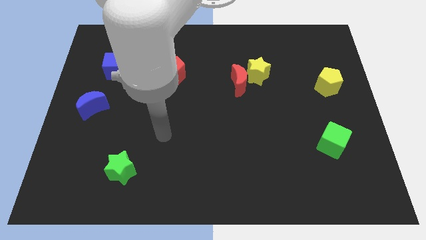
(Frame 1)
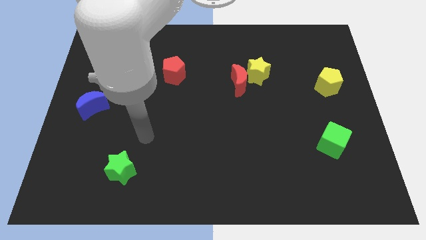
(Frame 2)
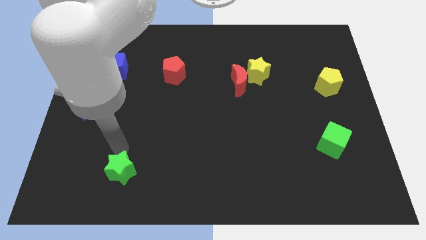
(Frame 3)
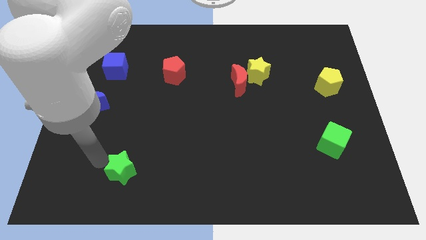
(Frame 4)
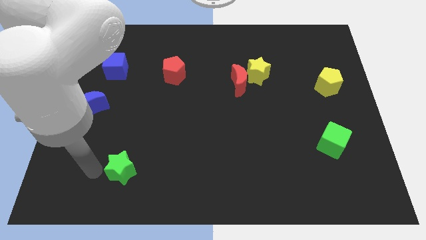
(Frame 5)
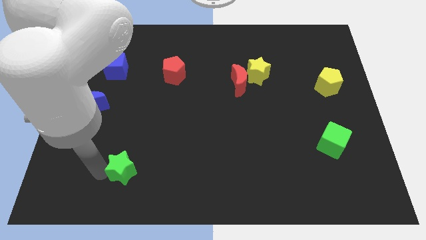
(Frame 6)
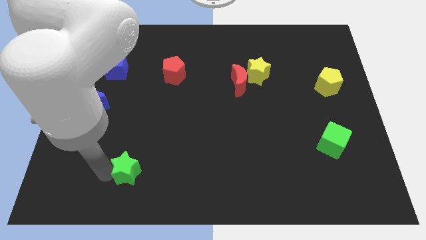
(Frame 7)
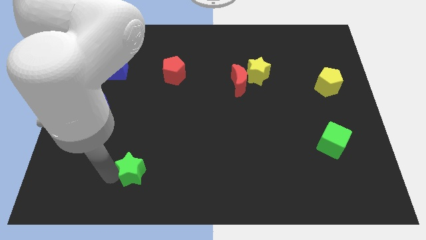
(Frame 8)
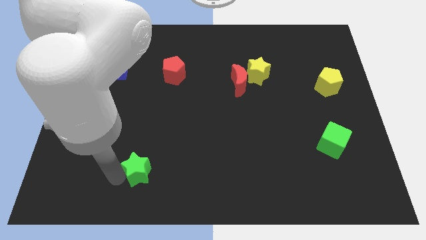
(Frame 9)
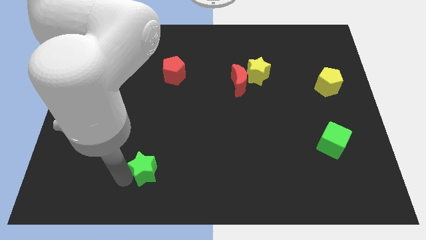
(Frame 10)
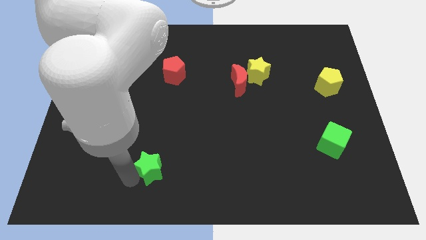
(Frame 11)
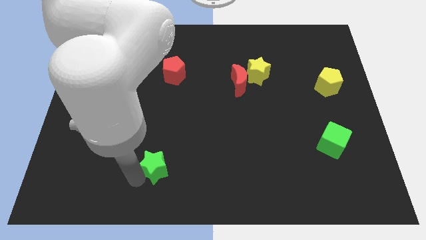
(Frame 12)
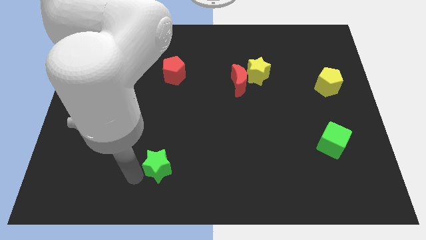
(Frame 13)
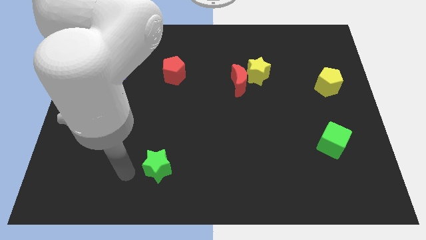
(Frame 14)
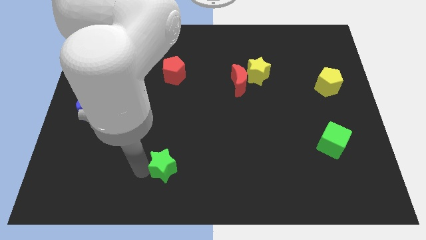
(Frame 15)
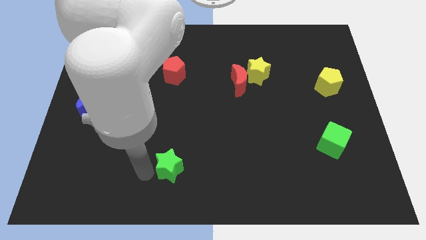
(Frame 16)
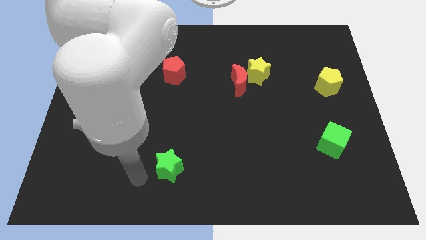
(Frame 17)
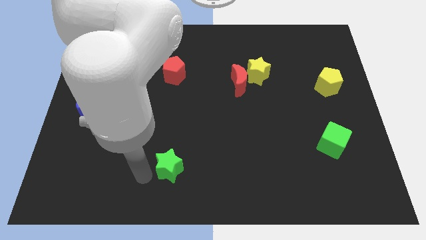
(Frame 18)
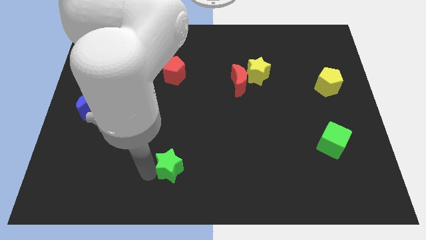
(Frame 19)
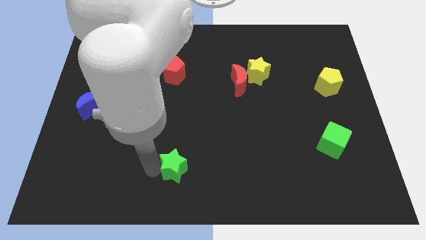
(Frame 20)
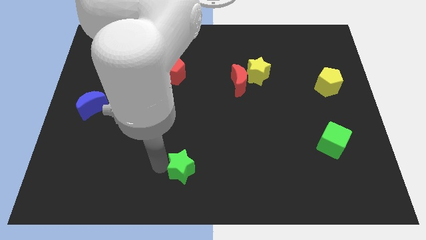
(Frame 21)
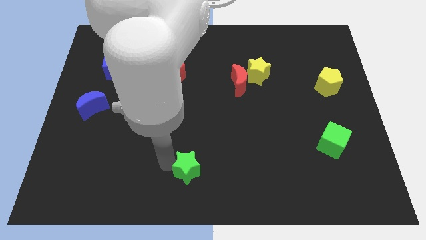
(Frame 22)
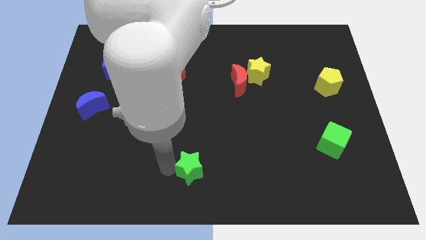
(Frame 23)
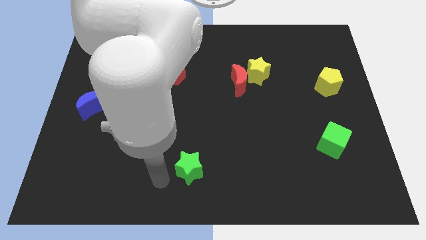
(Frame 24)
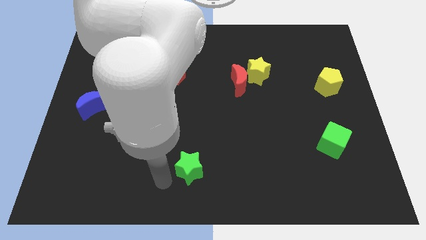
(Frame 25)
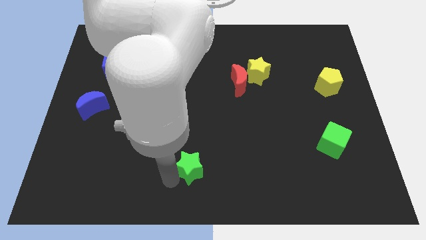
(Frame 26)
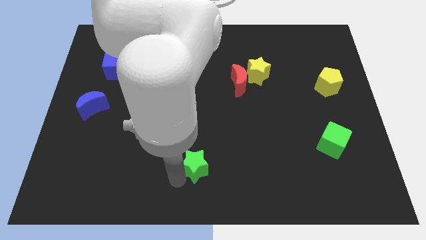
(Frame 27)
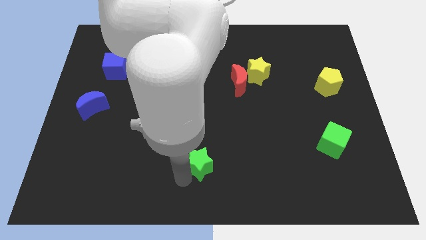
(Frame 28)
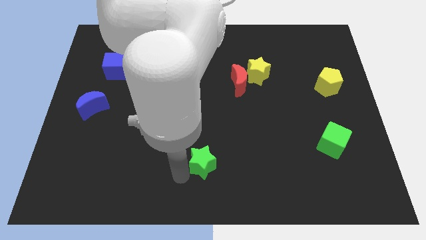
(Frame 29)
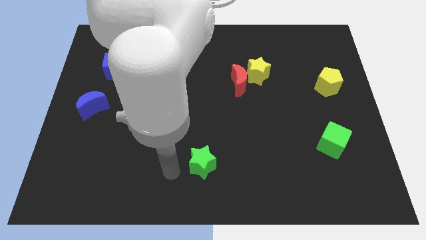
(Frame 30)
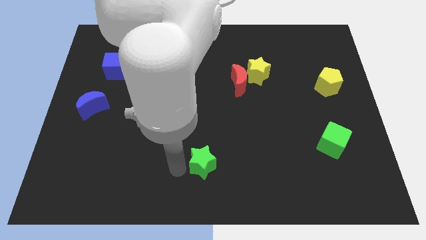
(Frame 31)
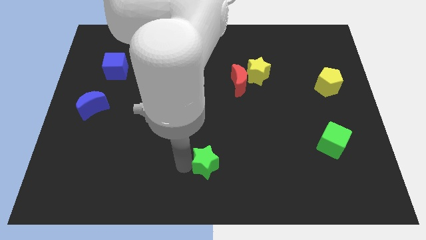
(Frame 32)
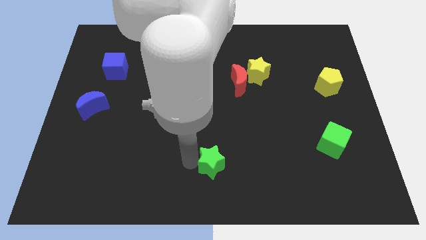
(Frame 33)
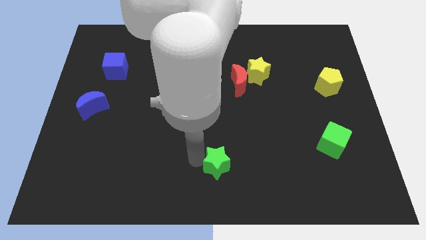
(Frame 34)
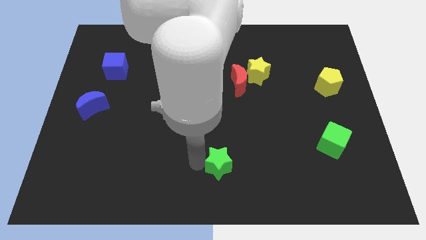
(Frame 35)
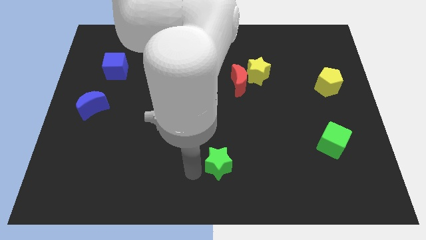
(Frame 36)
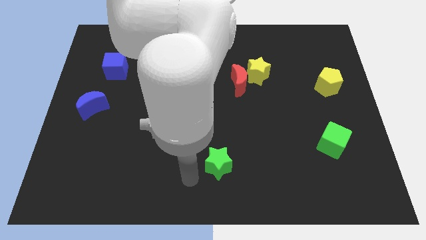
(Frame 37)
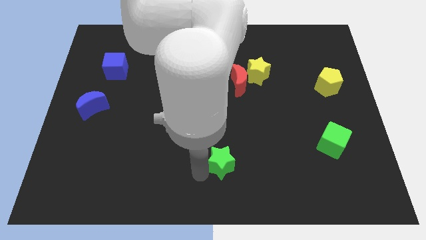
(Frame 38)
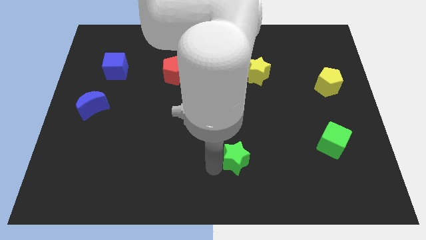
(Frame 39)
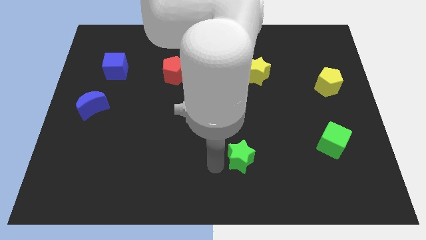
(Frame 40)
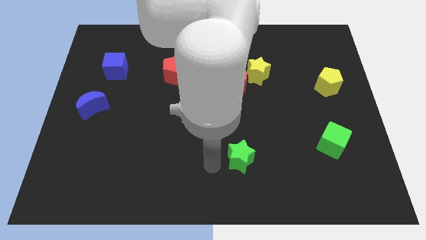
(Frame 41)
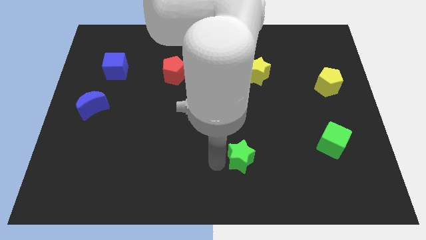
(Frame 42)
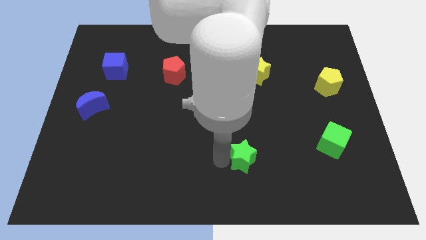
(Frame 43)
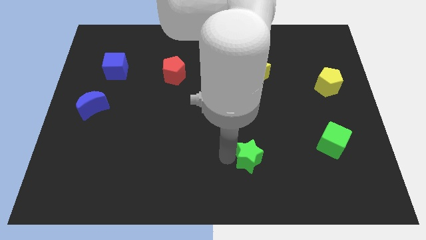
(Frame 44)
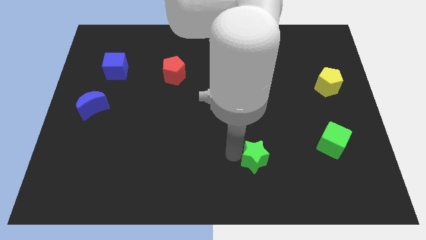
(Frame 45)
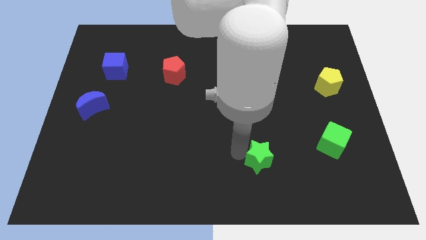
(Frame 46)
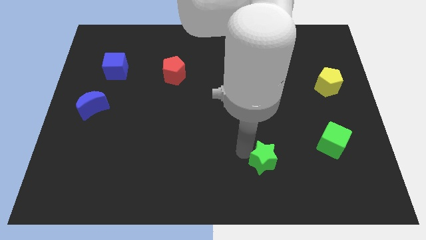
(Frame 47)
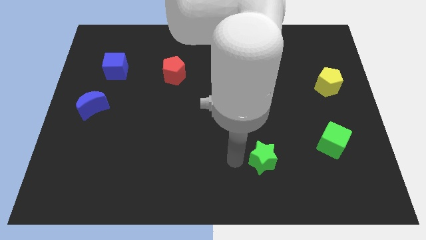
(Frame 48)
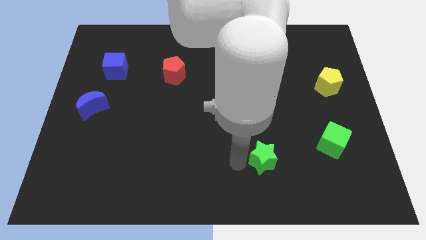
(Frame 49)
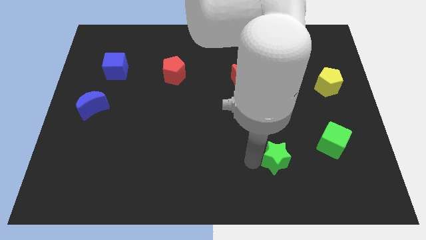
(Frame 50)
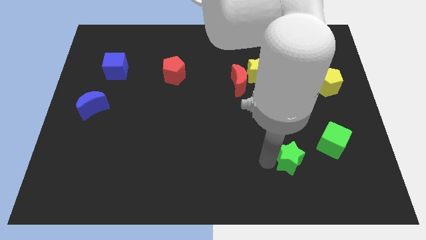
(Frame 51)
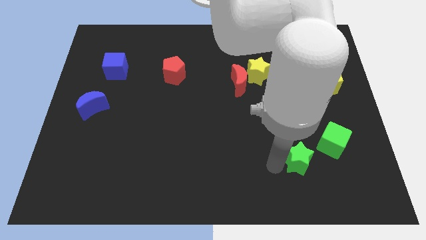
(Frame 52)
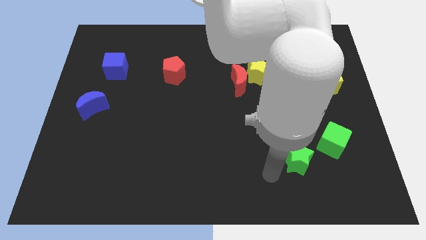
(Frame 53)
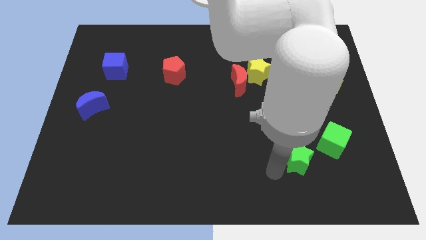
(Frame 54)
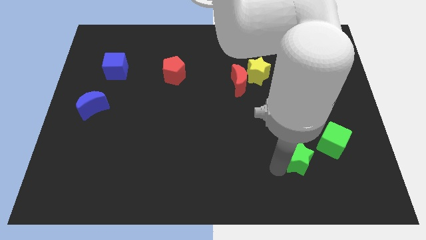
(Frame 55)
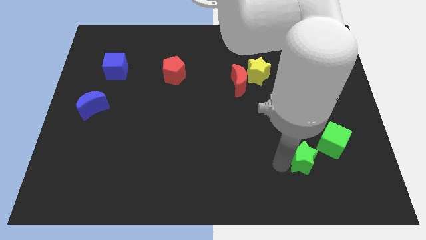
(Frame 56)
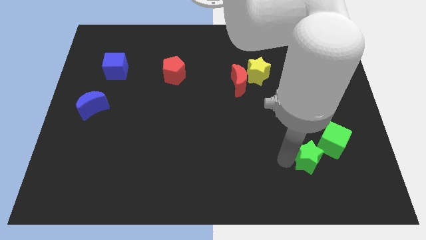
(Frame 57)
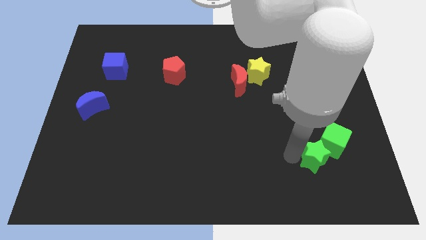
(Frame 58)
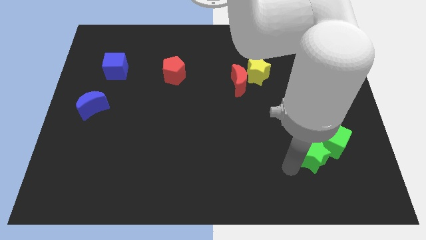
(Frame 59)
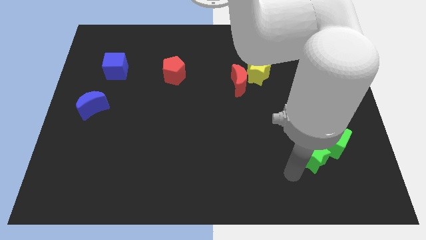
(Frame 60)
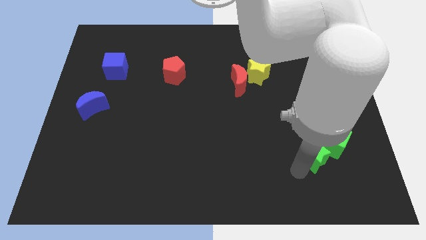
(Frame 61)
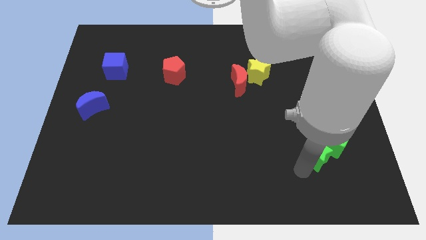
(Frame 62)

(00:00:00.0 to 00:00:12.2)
put the green star next to the green cube

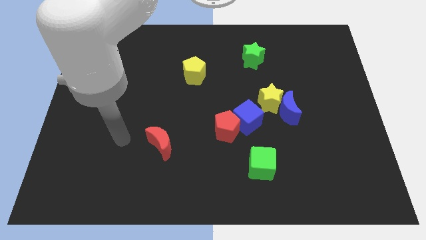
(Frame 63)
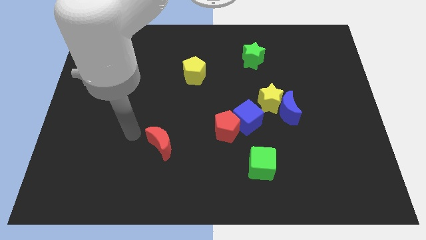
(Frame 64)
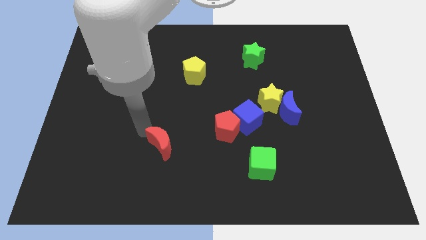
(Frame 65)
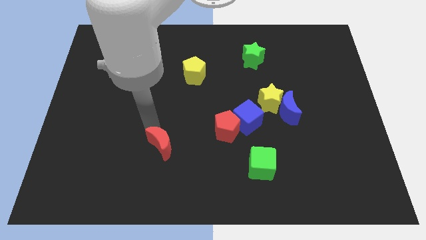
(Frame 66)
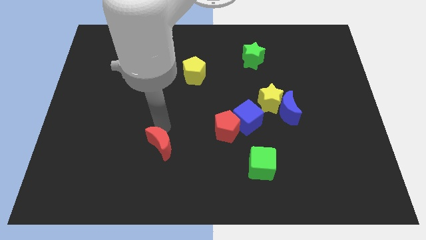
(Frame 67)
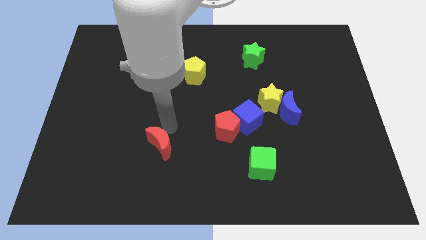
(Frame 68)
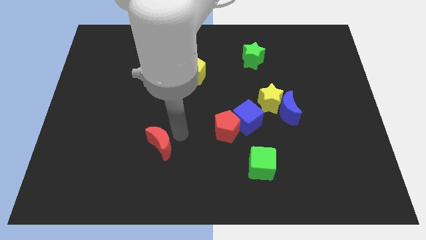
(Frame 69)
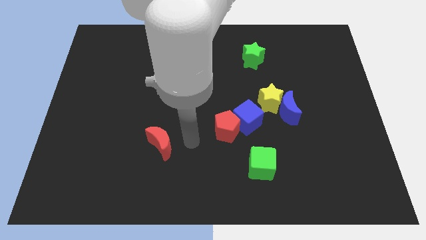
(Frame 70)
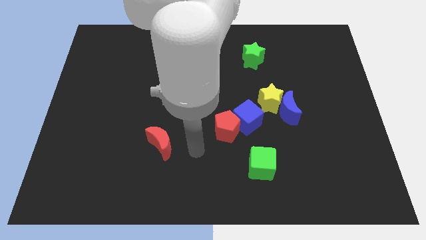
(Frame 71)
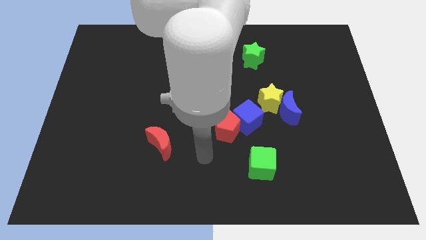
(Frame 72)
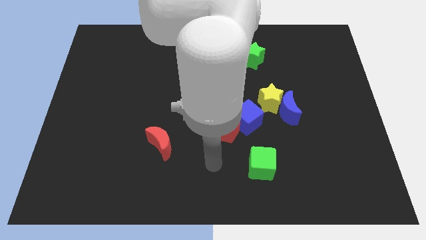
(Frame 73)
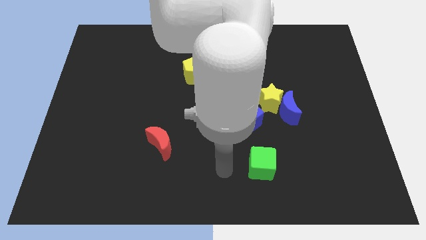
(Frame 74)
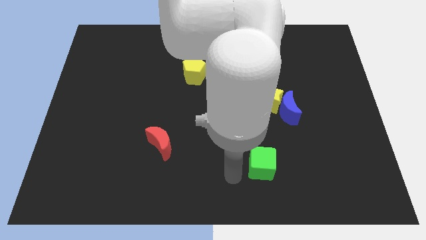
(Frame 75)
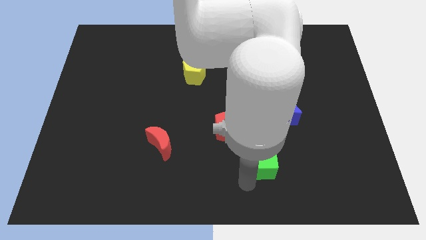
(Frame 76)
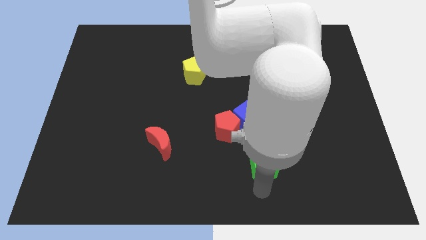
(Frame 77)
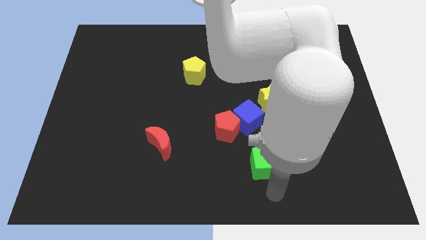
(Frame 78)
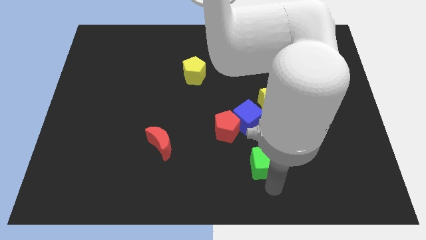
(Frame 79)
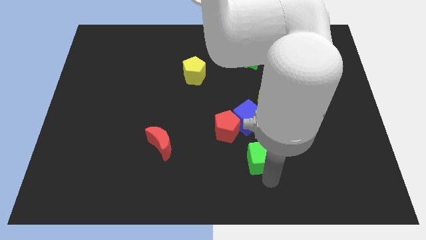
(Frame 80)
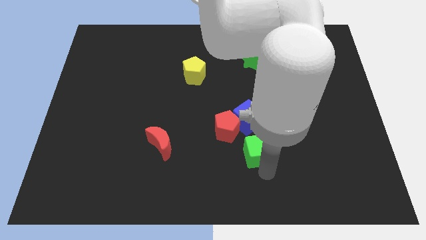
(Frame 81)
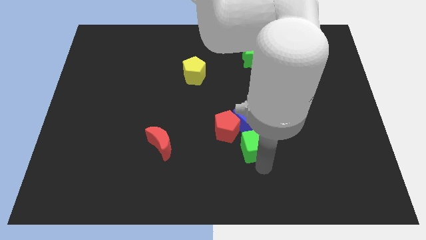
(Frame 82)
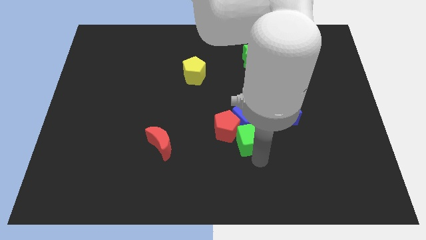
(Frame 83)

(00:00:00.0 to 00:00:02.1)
move the green cube next to the blue cube
